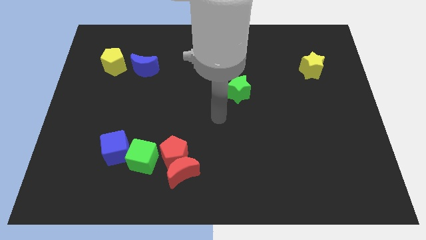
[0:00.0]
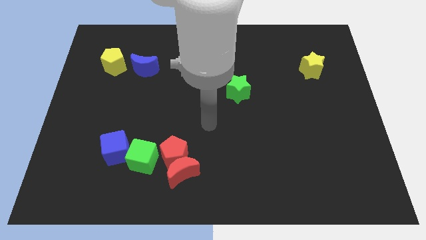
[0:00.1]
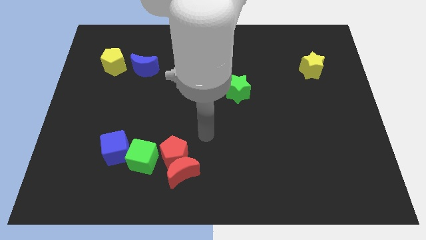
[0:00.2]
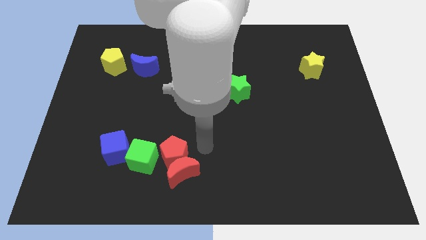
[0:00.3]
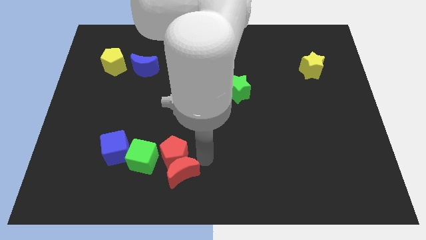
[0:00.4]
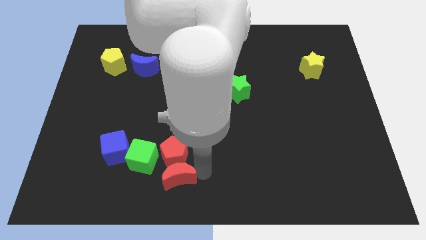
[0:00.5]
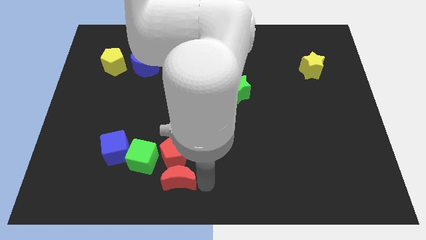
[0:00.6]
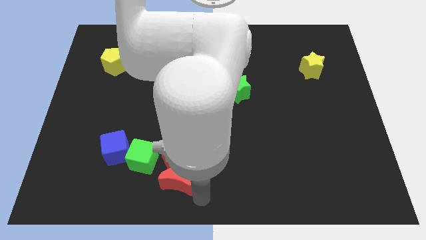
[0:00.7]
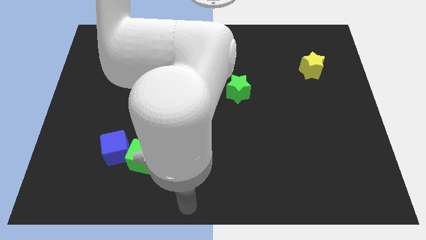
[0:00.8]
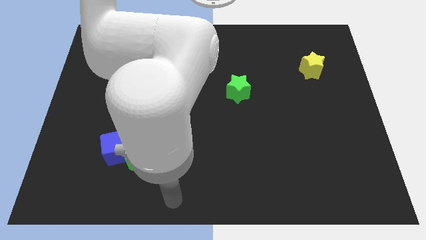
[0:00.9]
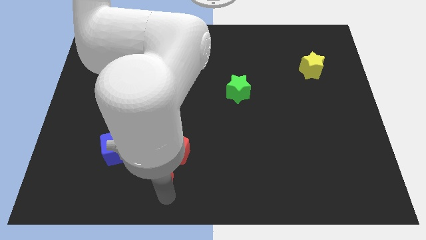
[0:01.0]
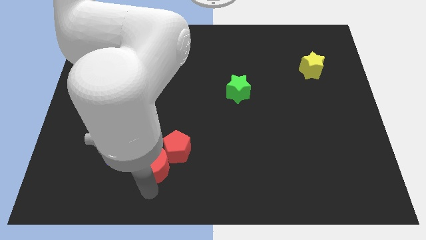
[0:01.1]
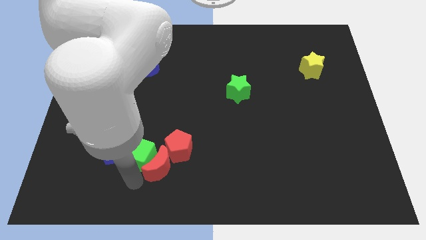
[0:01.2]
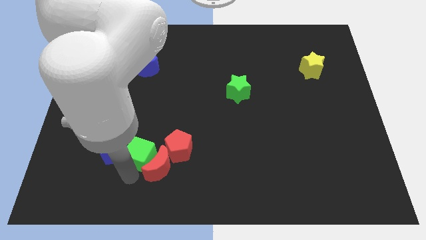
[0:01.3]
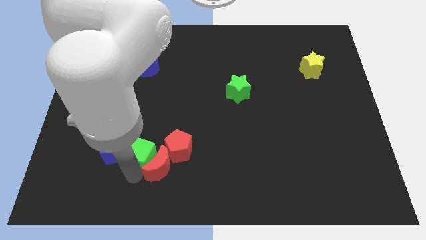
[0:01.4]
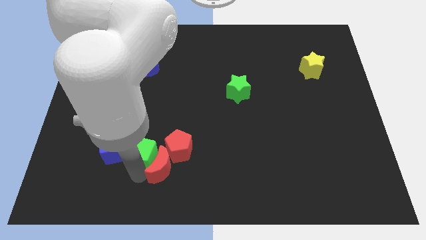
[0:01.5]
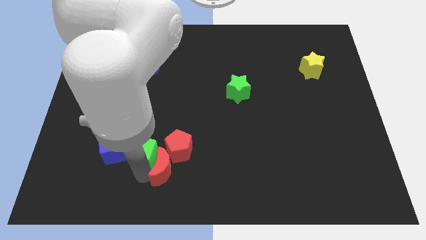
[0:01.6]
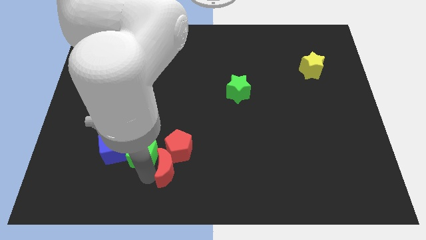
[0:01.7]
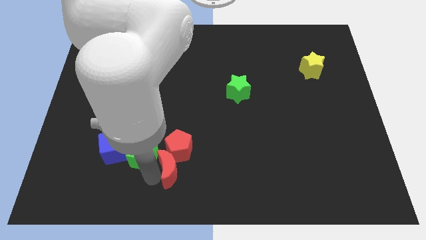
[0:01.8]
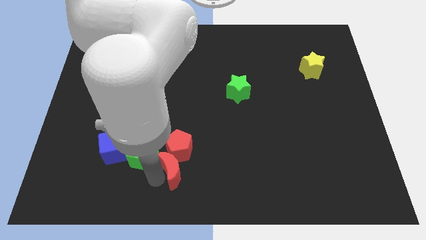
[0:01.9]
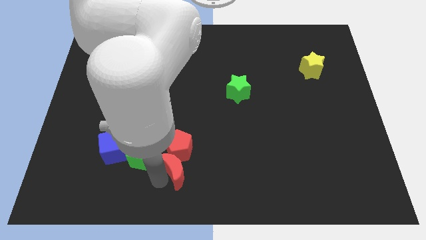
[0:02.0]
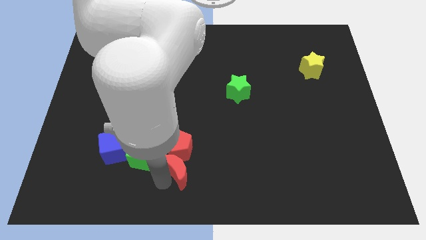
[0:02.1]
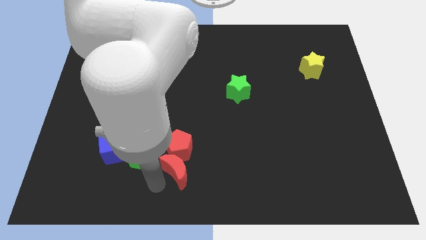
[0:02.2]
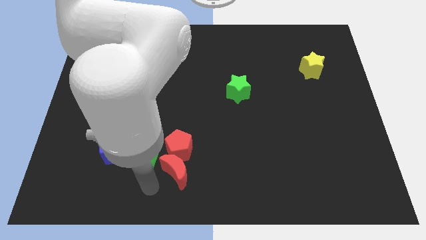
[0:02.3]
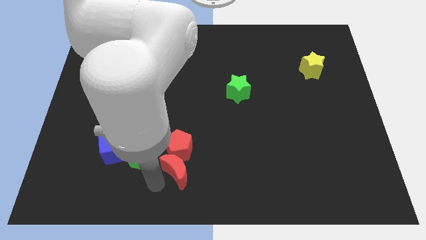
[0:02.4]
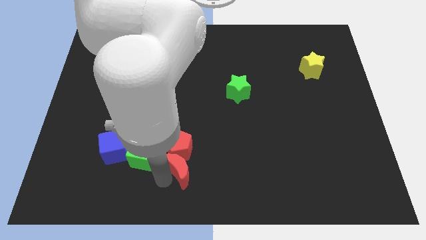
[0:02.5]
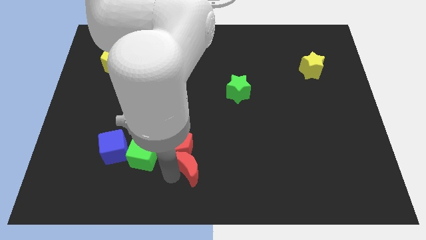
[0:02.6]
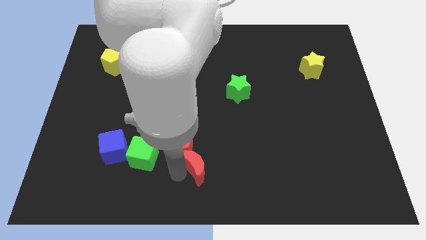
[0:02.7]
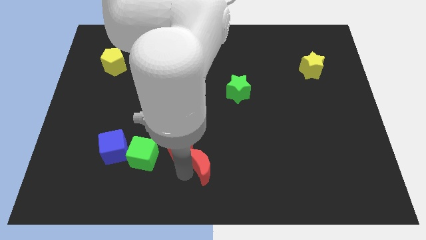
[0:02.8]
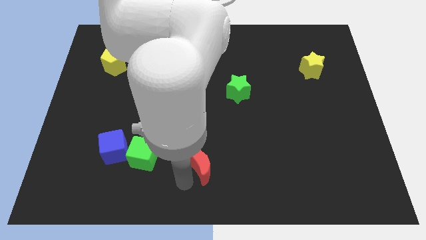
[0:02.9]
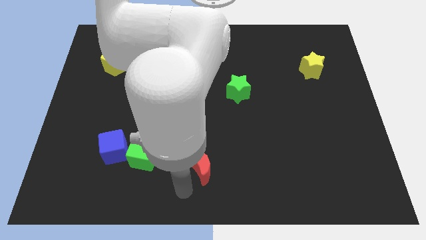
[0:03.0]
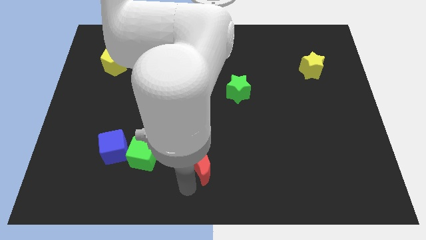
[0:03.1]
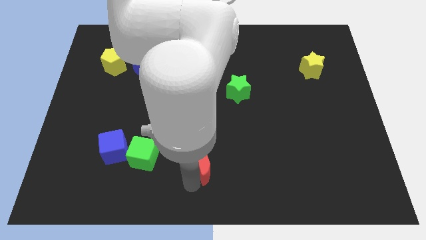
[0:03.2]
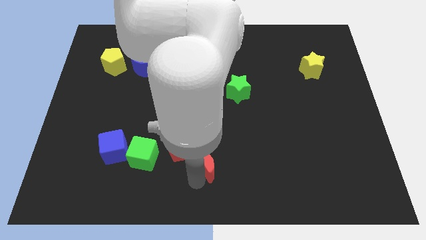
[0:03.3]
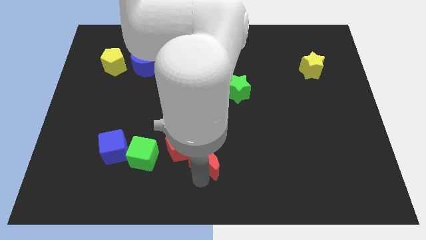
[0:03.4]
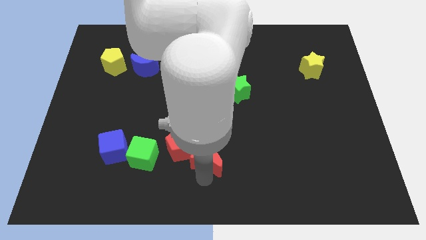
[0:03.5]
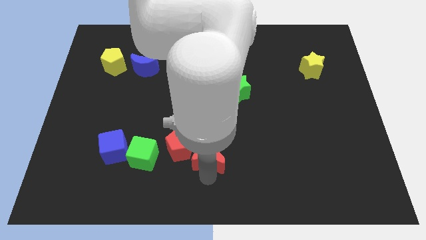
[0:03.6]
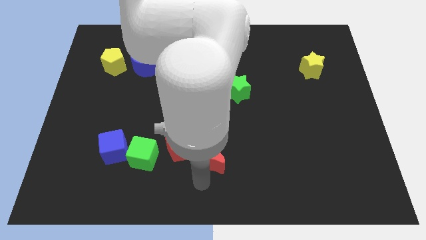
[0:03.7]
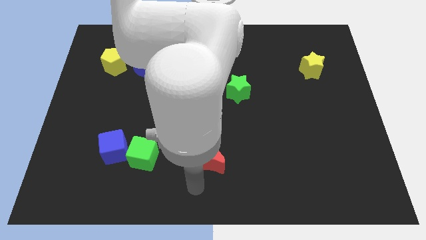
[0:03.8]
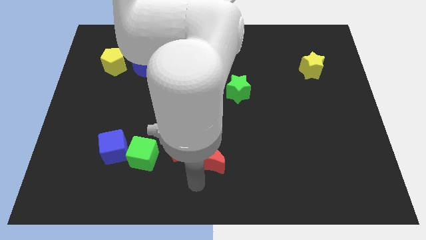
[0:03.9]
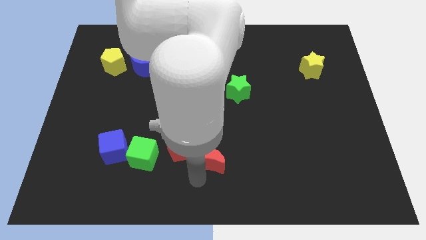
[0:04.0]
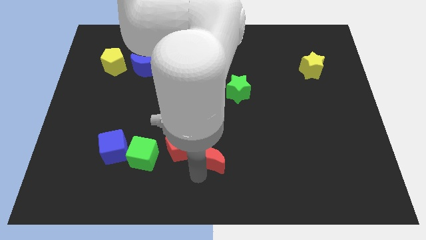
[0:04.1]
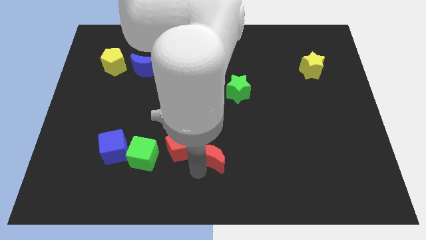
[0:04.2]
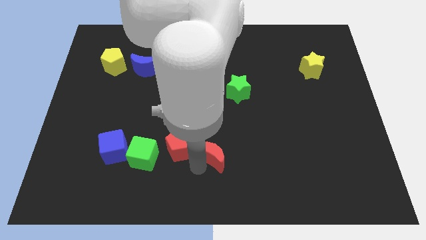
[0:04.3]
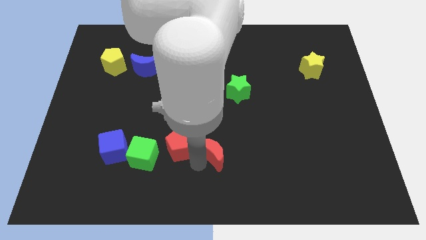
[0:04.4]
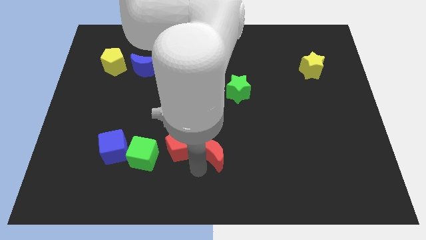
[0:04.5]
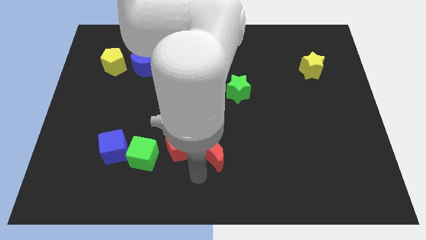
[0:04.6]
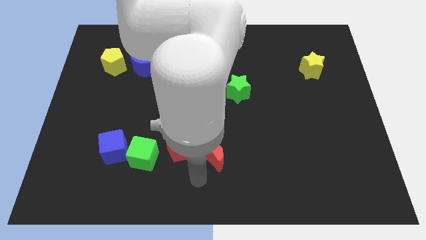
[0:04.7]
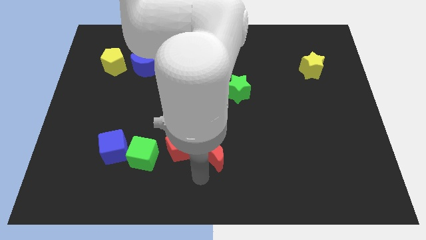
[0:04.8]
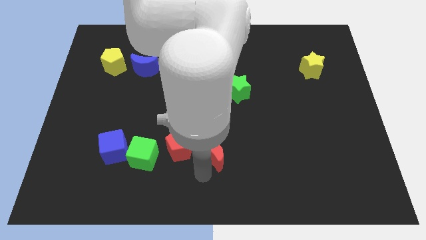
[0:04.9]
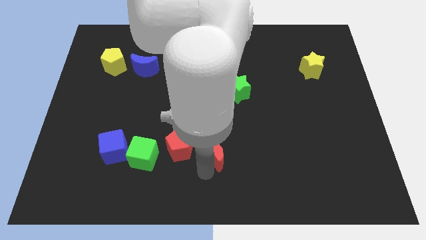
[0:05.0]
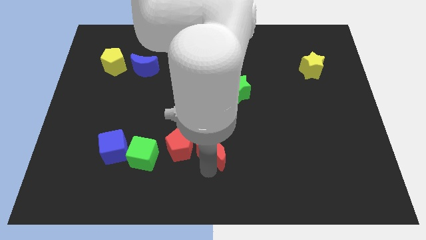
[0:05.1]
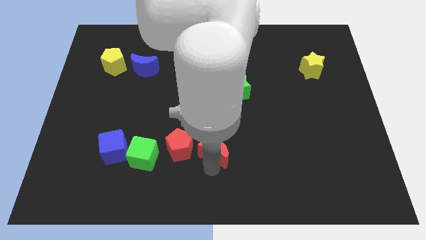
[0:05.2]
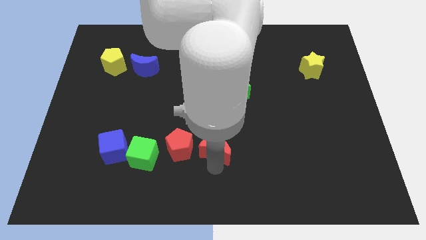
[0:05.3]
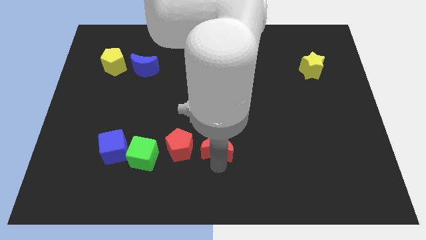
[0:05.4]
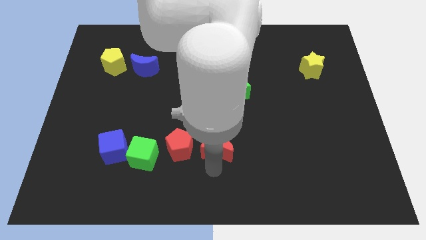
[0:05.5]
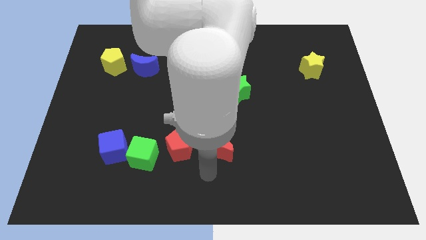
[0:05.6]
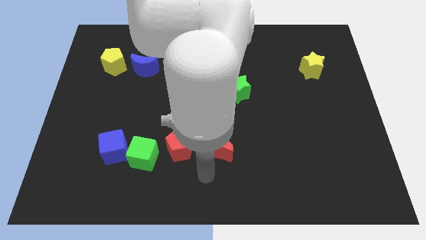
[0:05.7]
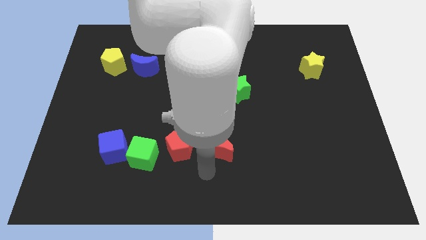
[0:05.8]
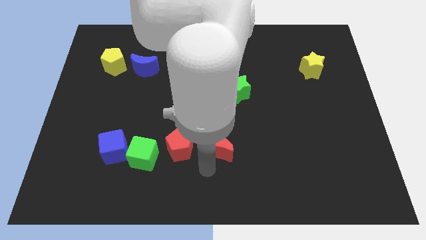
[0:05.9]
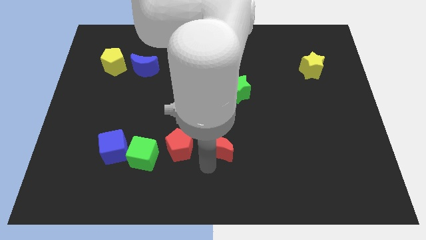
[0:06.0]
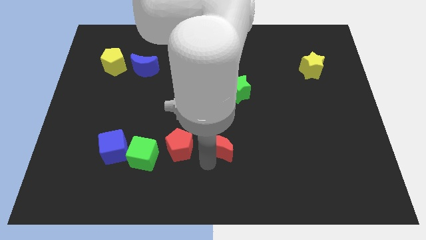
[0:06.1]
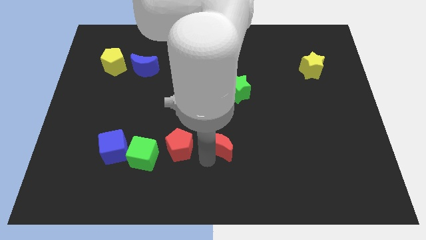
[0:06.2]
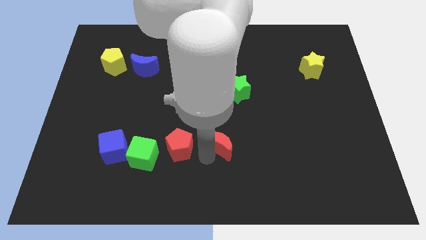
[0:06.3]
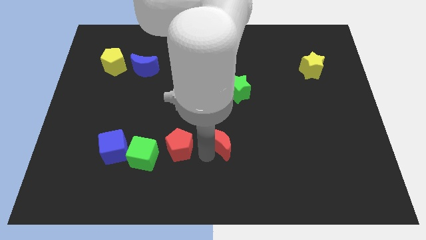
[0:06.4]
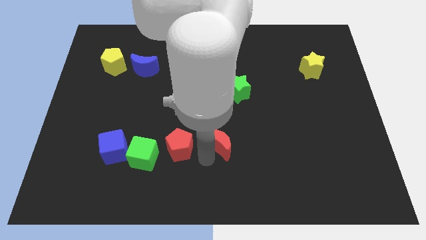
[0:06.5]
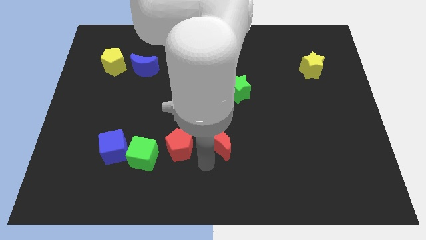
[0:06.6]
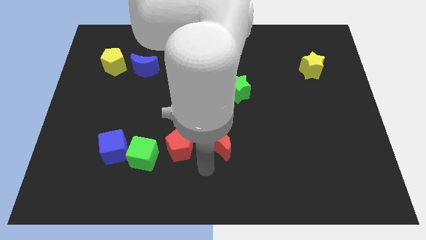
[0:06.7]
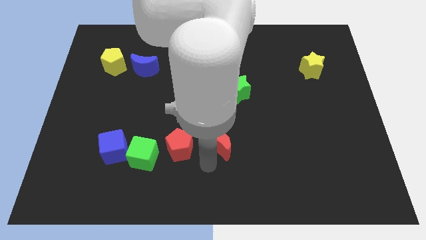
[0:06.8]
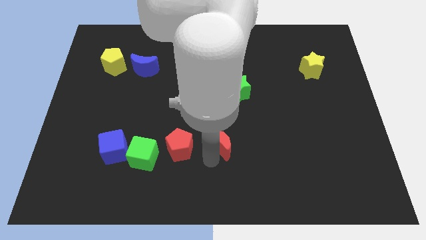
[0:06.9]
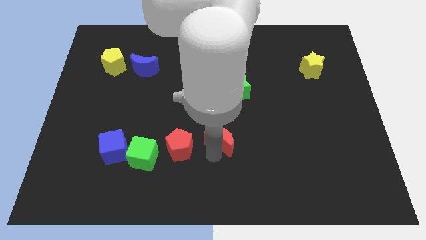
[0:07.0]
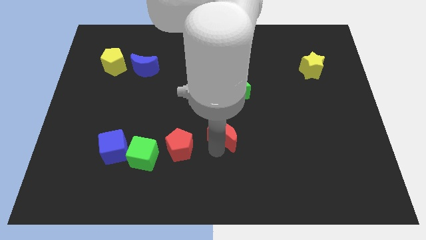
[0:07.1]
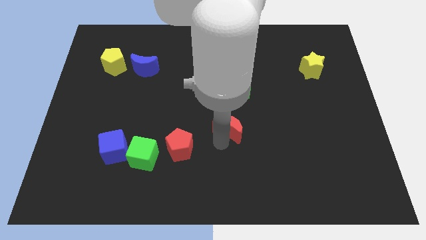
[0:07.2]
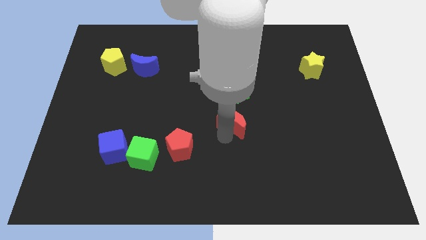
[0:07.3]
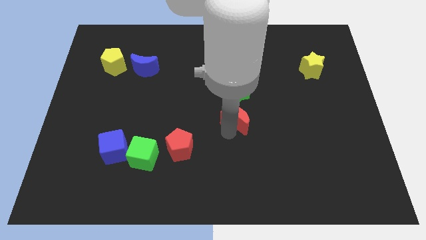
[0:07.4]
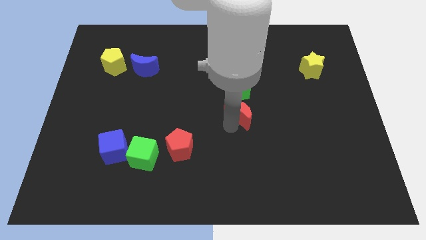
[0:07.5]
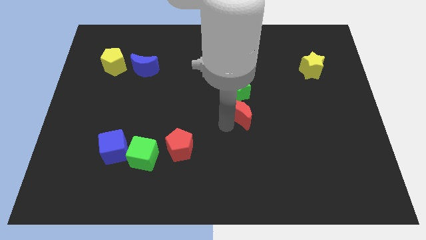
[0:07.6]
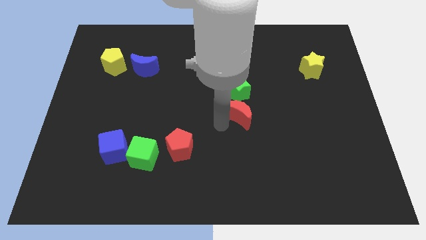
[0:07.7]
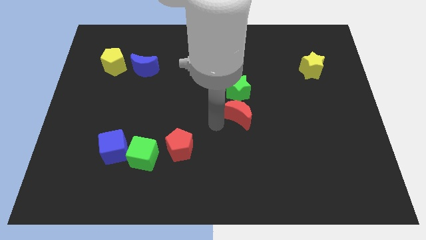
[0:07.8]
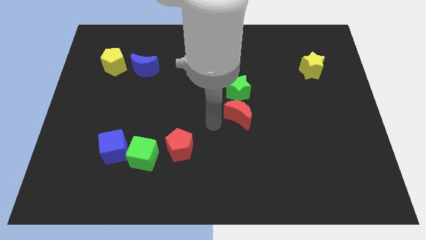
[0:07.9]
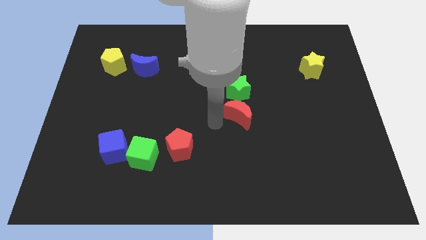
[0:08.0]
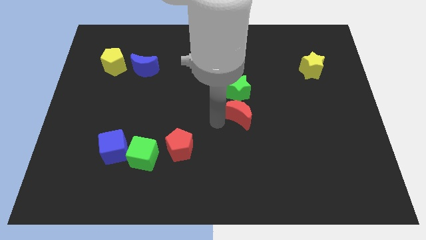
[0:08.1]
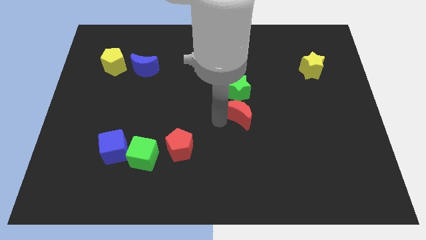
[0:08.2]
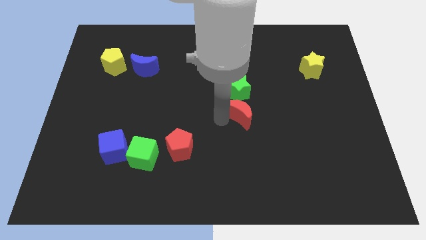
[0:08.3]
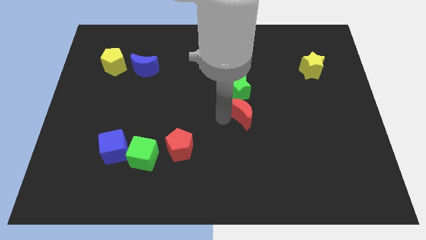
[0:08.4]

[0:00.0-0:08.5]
slide the red moon upwards and to the right diagonally
